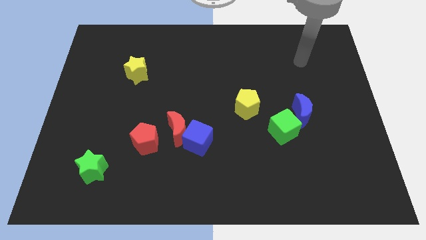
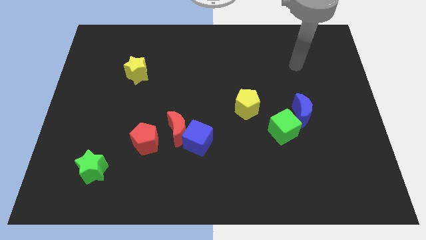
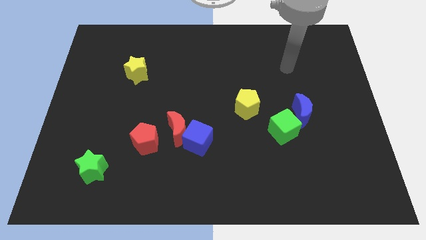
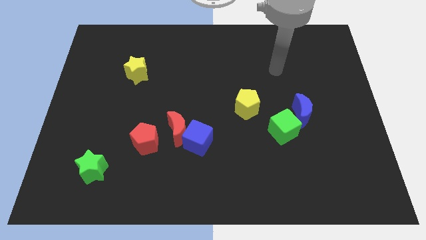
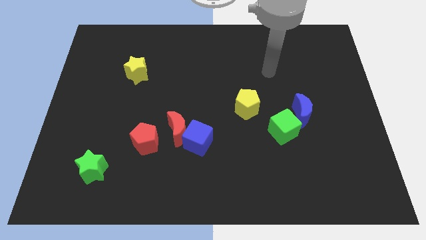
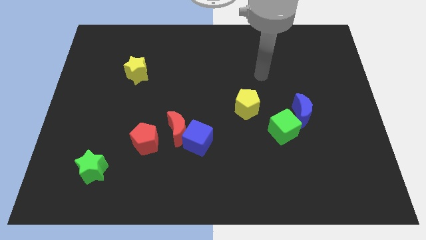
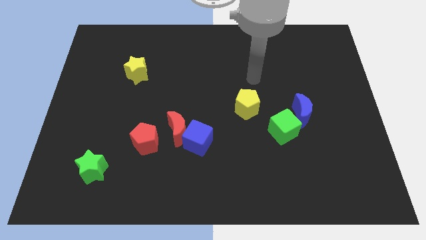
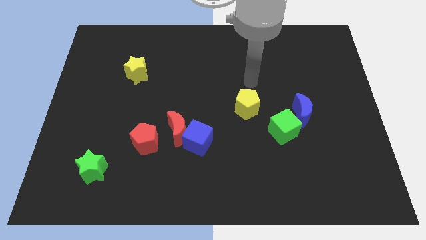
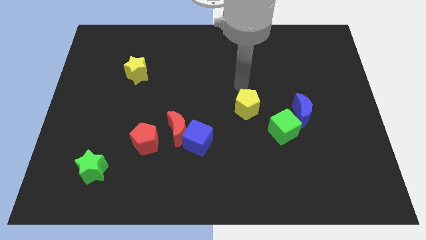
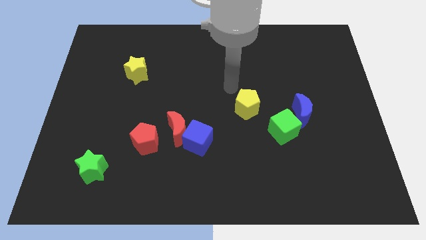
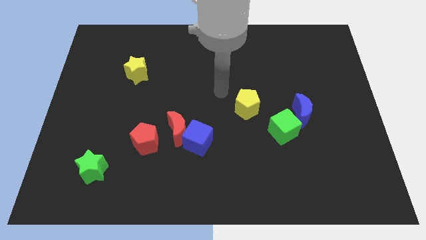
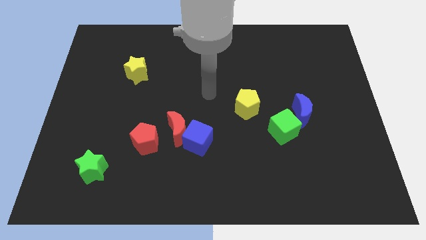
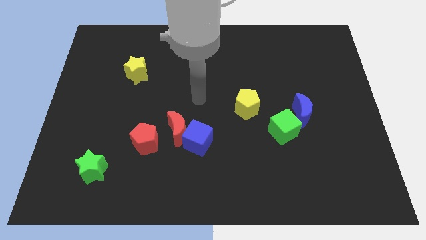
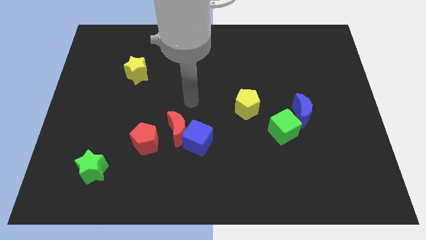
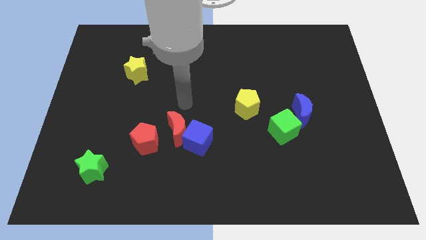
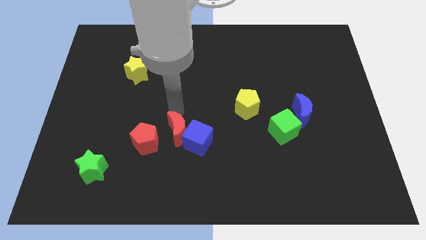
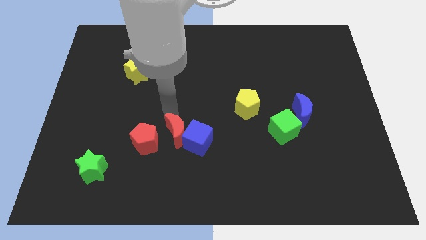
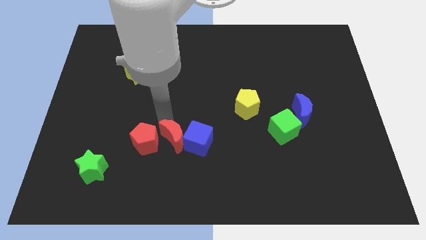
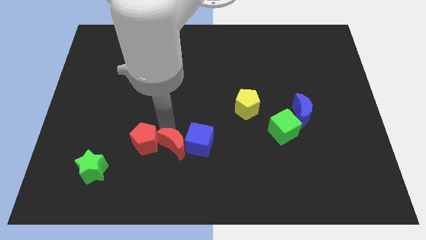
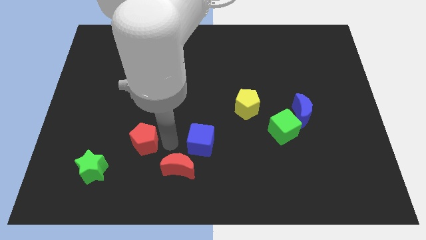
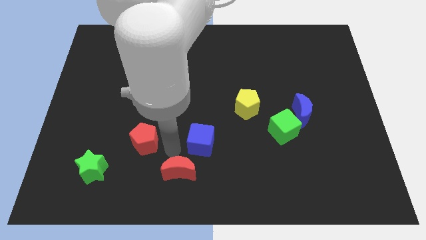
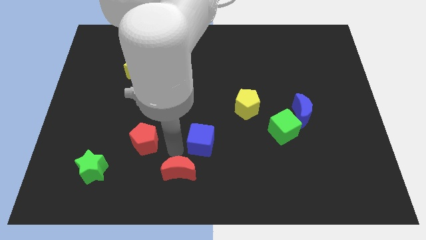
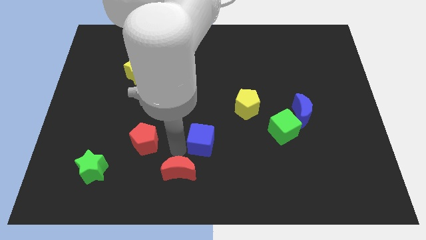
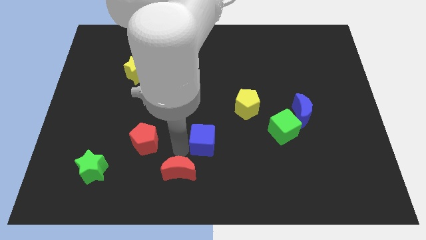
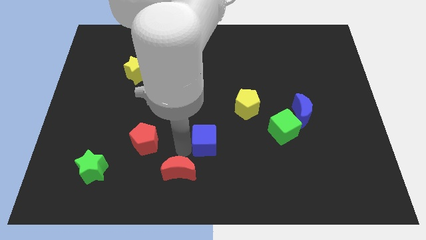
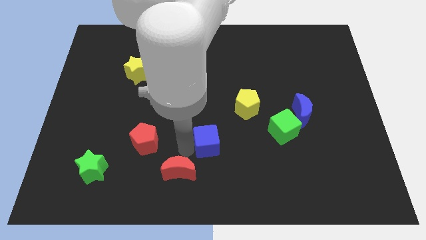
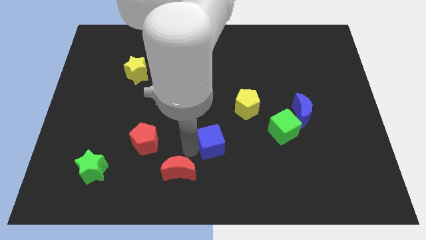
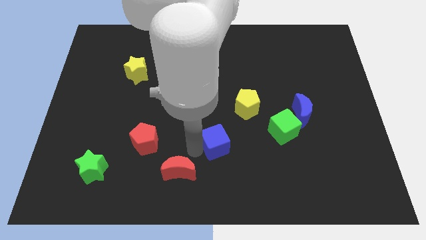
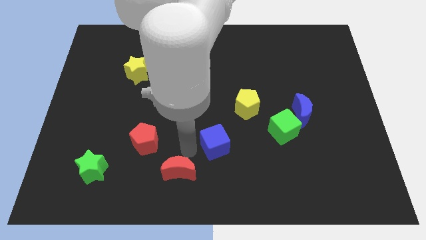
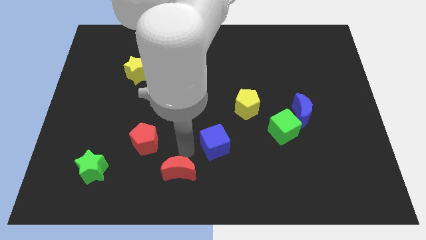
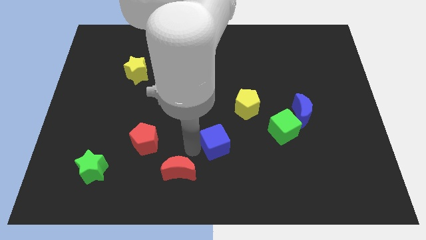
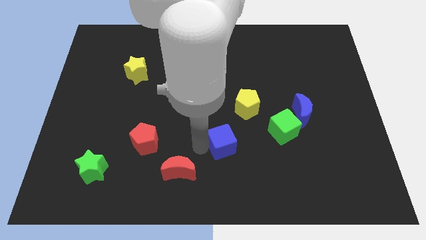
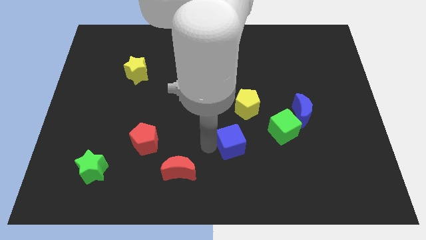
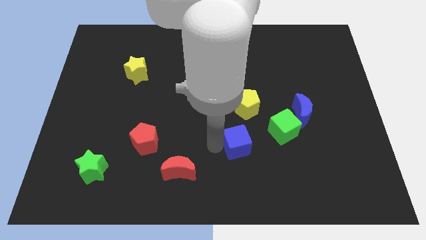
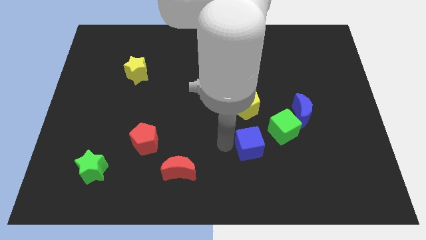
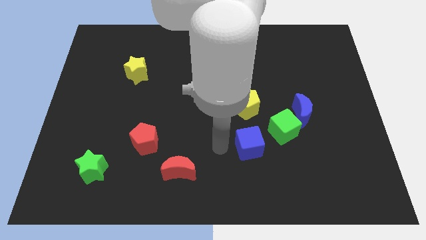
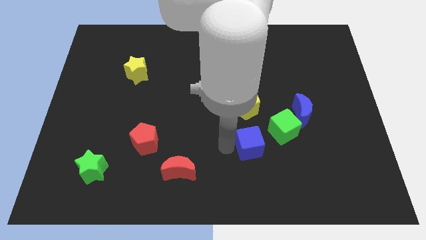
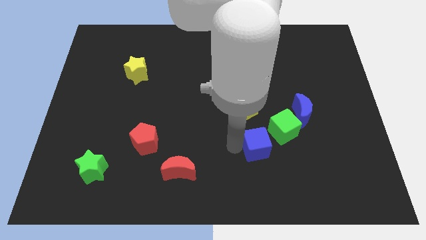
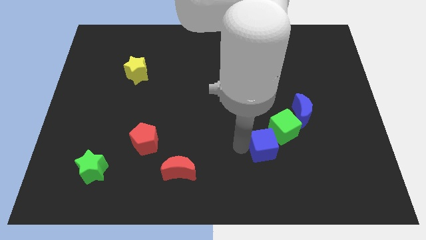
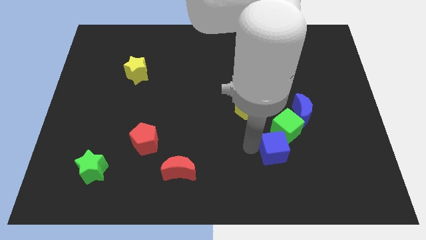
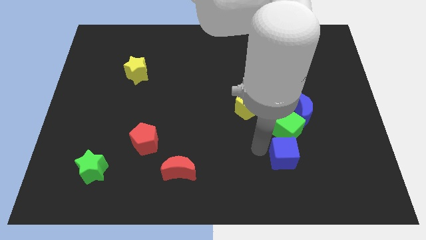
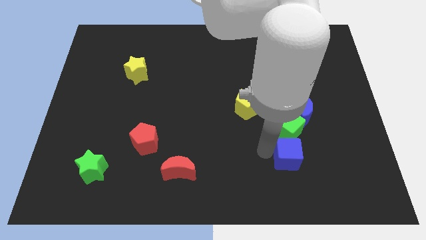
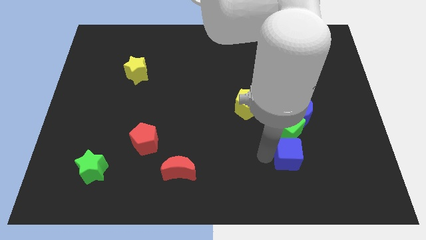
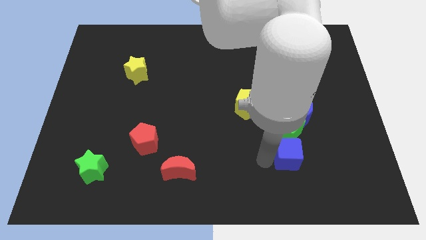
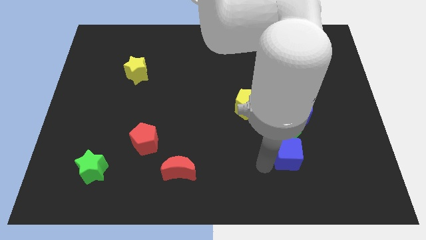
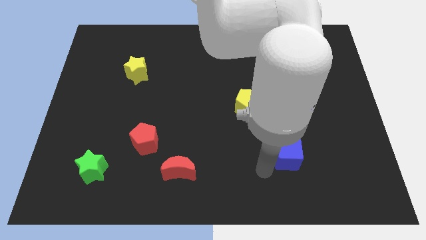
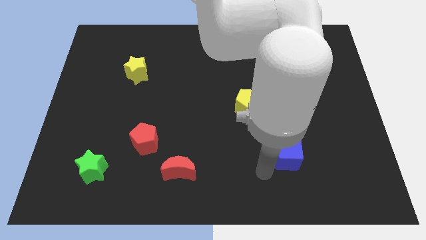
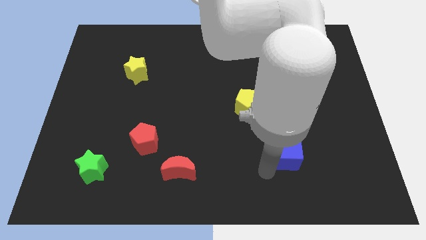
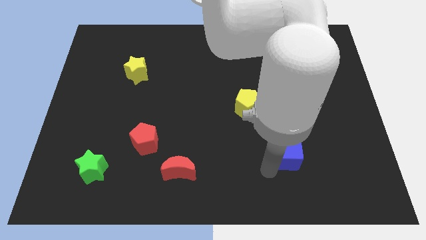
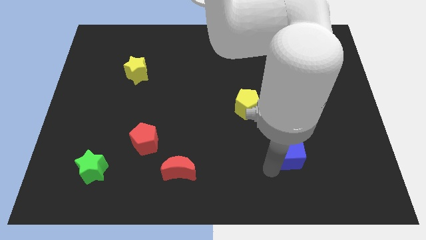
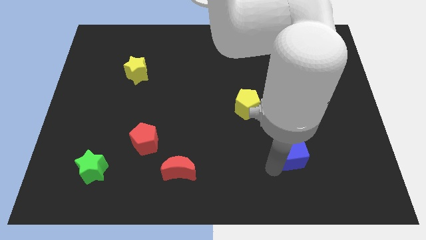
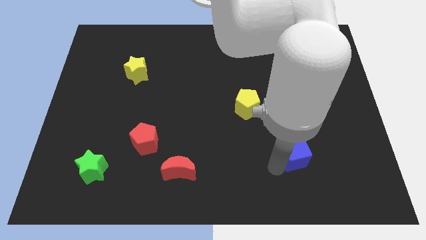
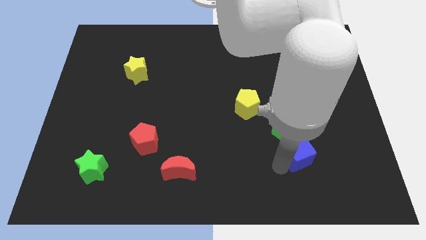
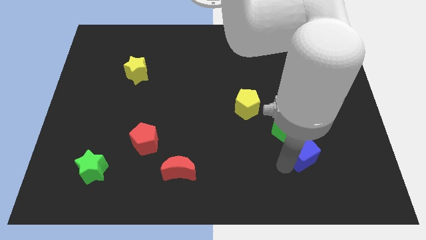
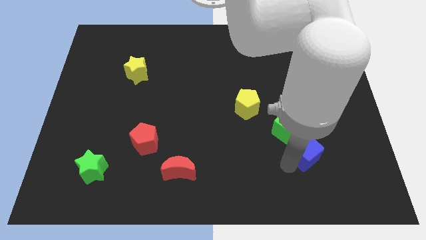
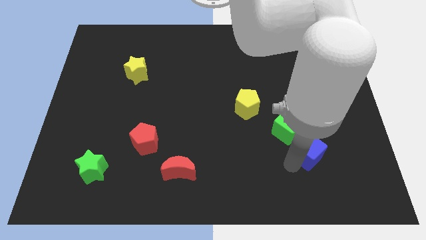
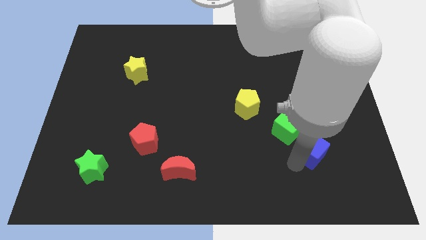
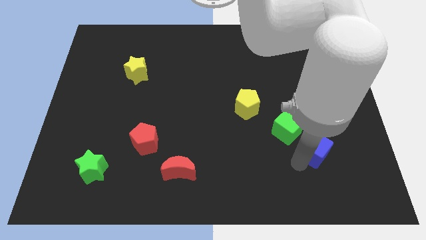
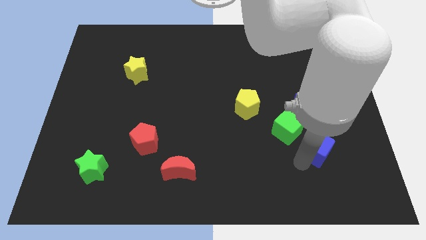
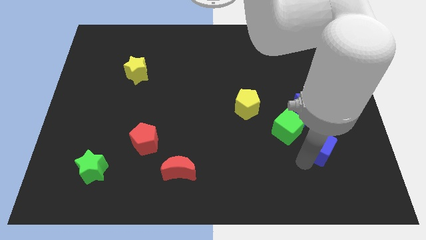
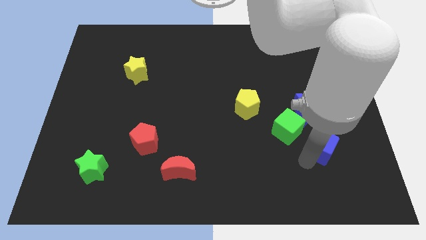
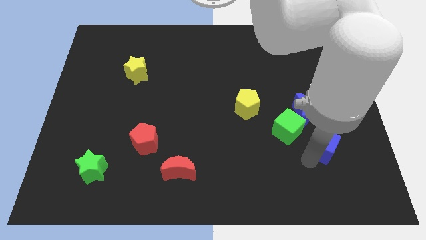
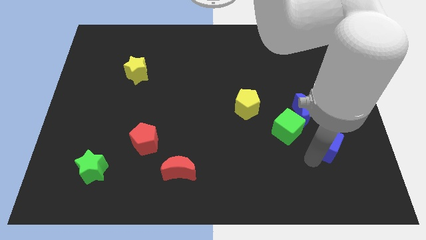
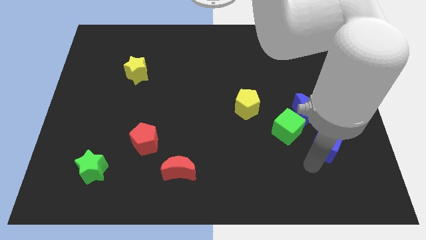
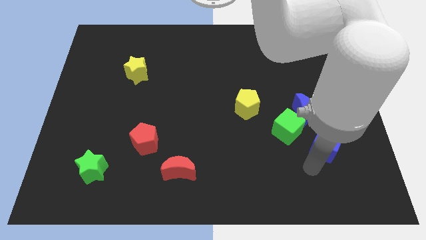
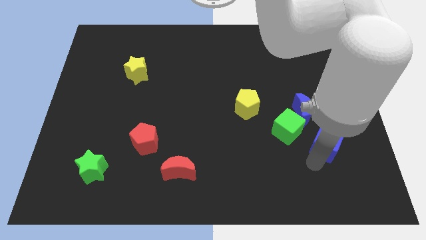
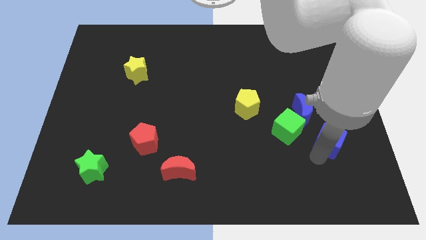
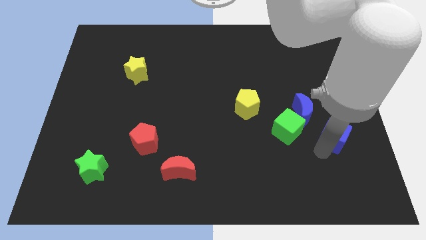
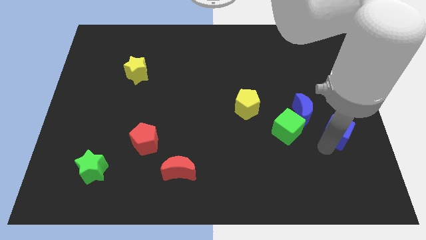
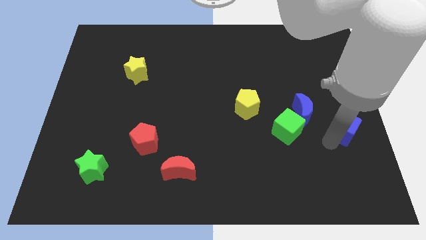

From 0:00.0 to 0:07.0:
move the blue cube to the right side of the board
